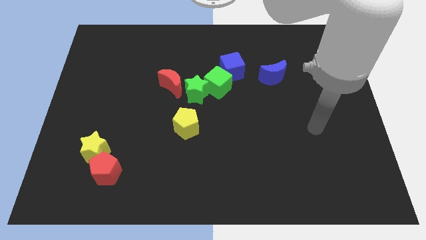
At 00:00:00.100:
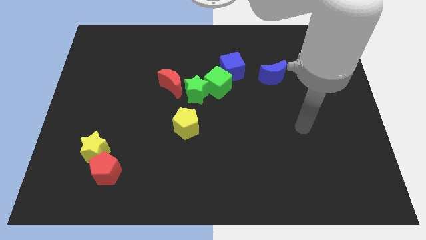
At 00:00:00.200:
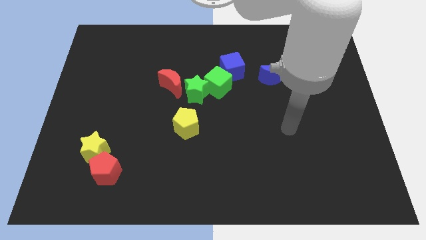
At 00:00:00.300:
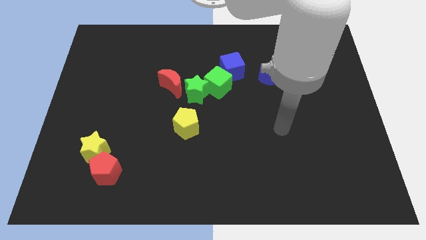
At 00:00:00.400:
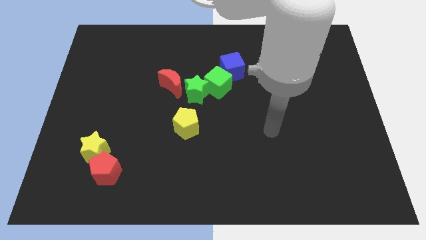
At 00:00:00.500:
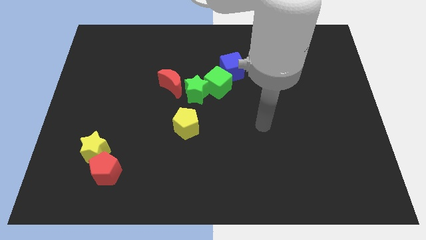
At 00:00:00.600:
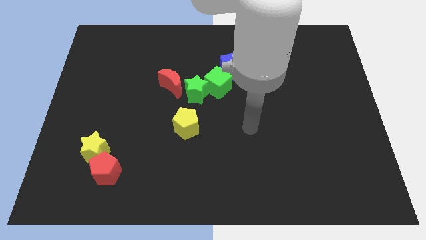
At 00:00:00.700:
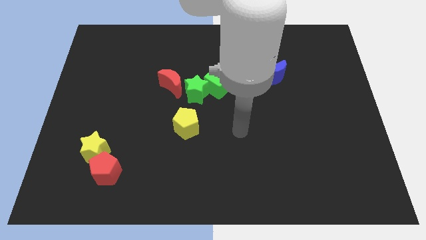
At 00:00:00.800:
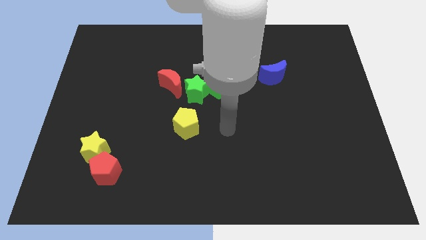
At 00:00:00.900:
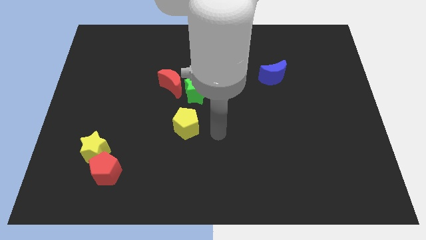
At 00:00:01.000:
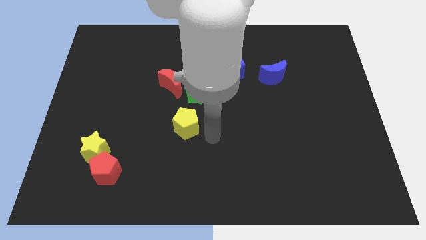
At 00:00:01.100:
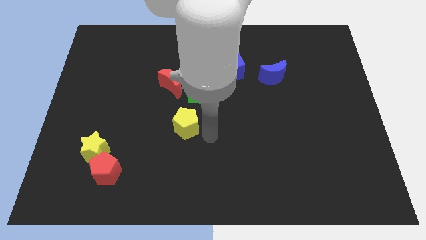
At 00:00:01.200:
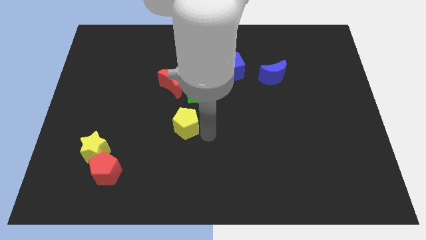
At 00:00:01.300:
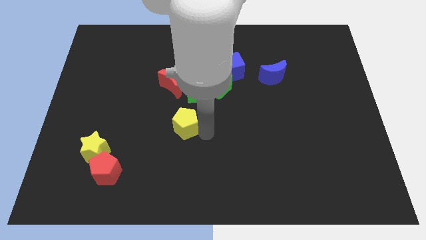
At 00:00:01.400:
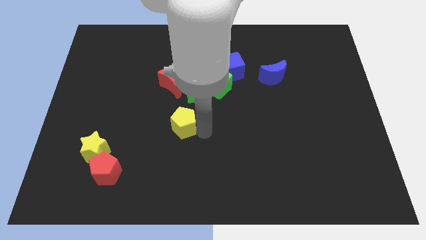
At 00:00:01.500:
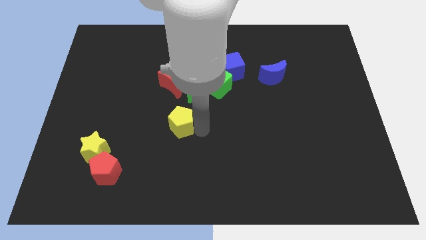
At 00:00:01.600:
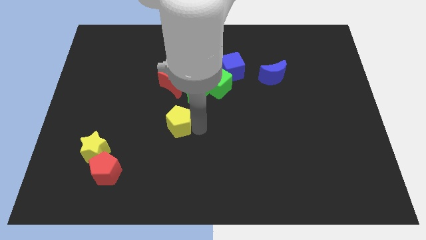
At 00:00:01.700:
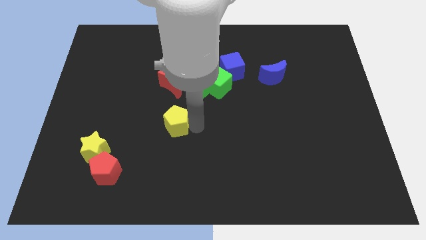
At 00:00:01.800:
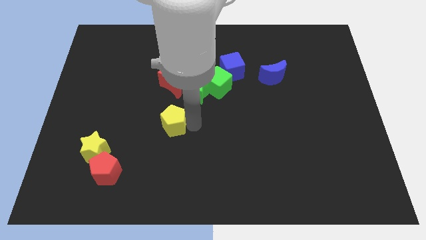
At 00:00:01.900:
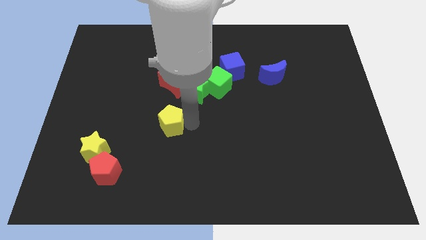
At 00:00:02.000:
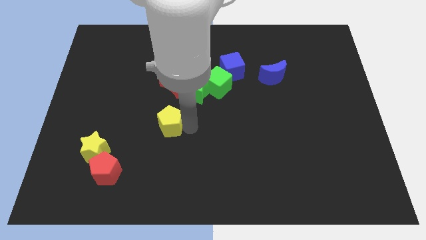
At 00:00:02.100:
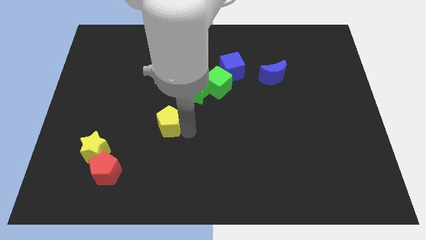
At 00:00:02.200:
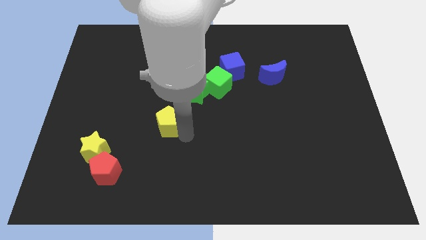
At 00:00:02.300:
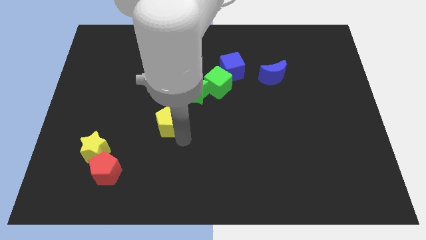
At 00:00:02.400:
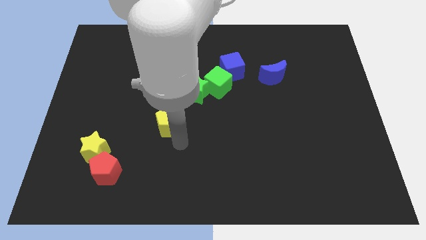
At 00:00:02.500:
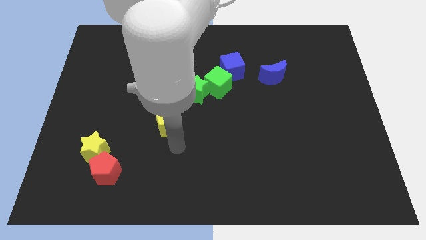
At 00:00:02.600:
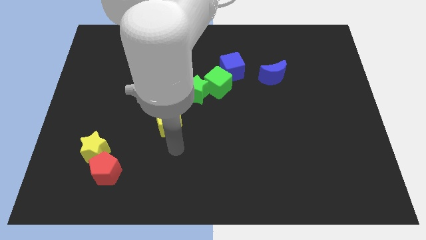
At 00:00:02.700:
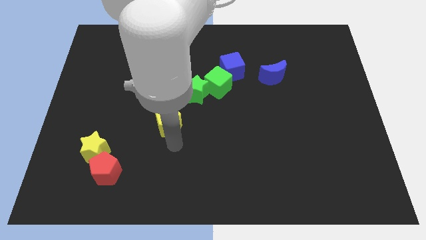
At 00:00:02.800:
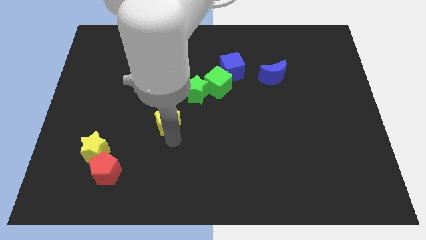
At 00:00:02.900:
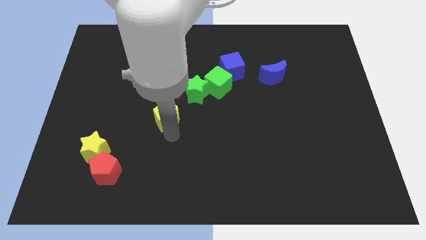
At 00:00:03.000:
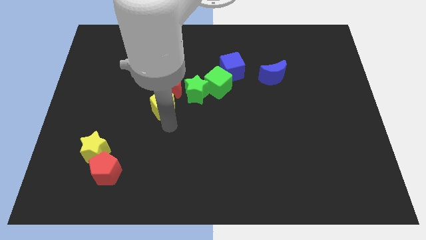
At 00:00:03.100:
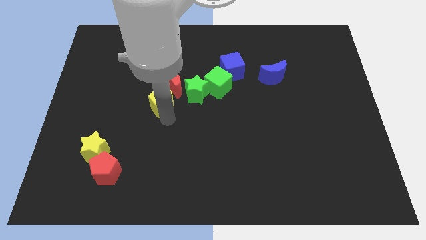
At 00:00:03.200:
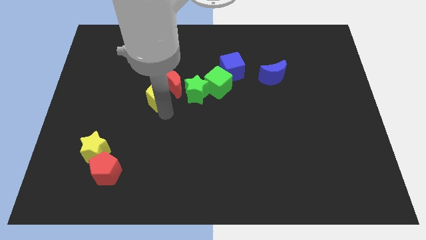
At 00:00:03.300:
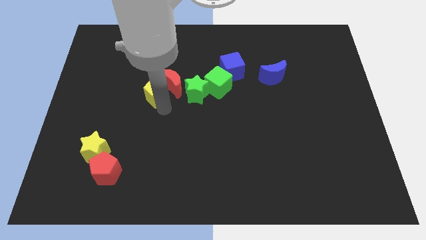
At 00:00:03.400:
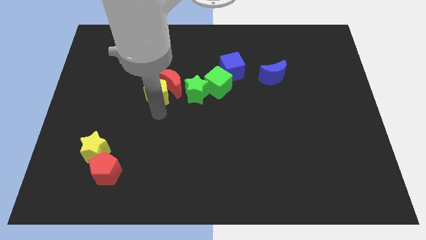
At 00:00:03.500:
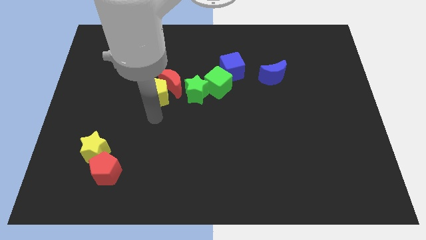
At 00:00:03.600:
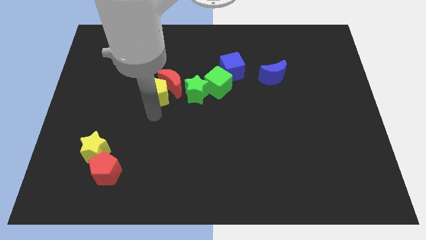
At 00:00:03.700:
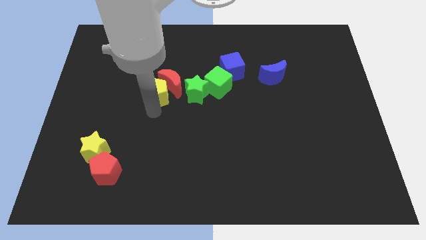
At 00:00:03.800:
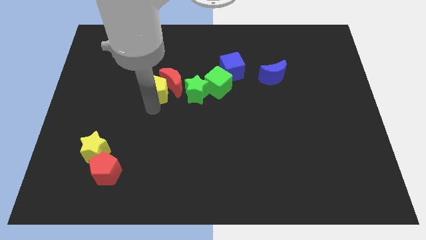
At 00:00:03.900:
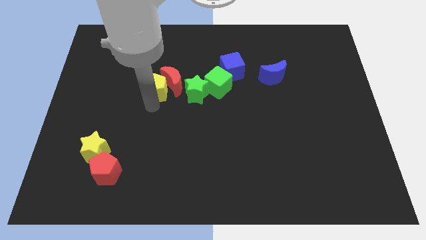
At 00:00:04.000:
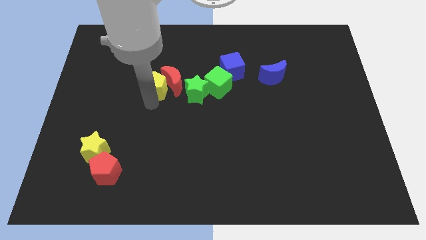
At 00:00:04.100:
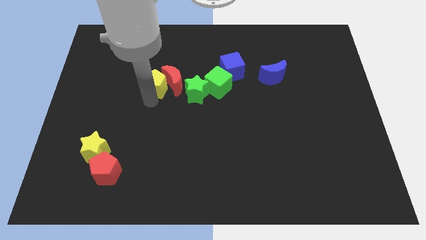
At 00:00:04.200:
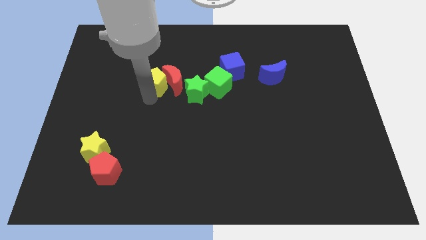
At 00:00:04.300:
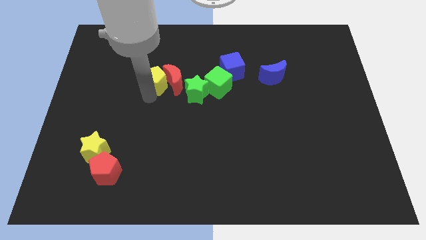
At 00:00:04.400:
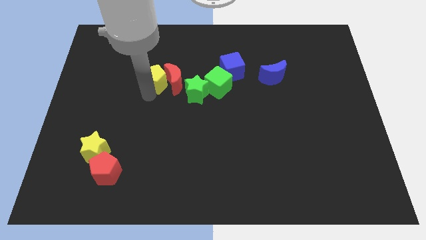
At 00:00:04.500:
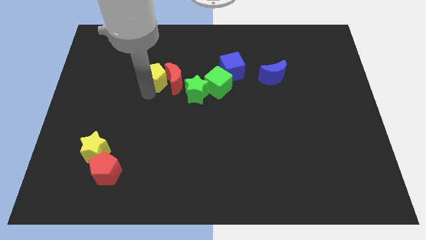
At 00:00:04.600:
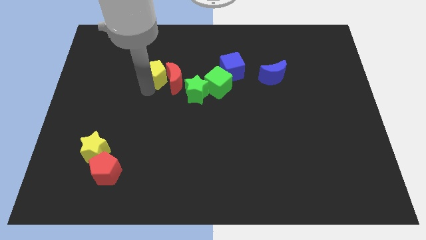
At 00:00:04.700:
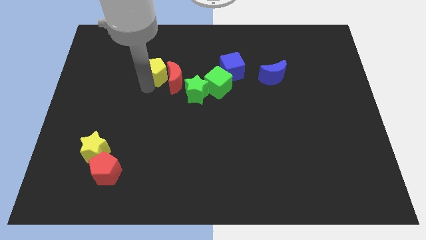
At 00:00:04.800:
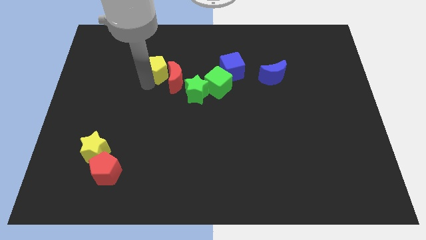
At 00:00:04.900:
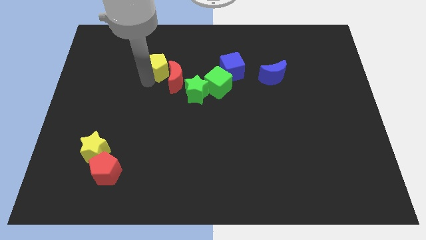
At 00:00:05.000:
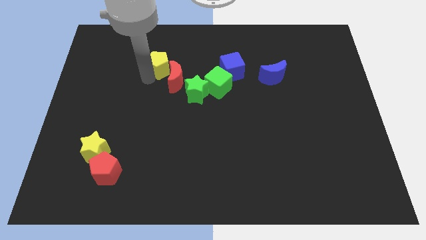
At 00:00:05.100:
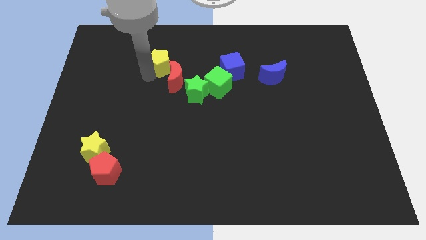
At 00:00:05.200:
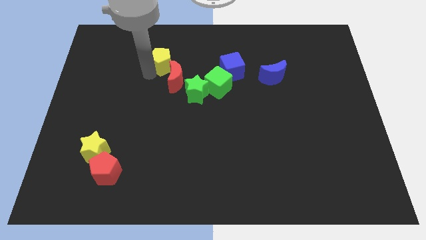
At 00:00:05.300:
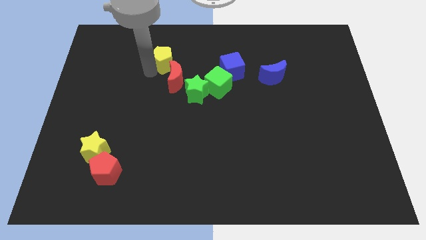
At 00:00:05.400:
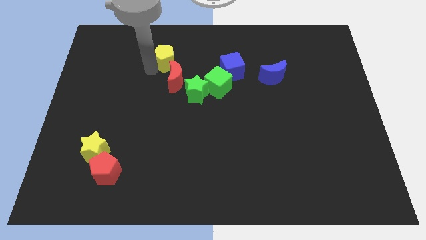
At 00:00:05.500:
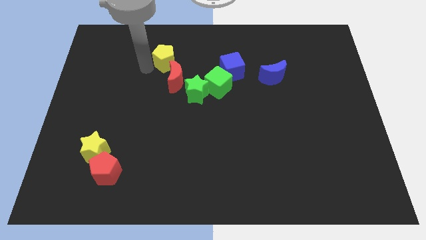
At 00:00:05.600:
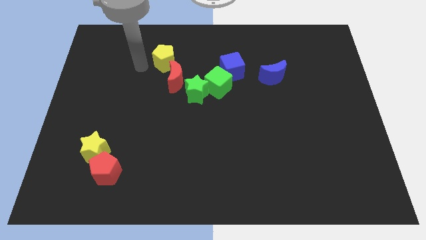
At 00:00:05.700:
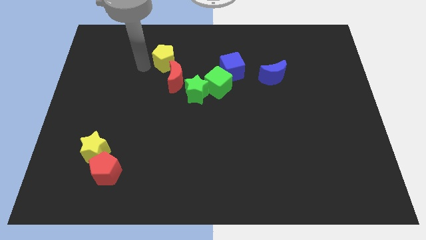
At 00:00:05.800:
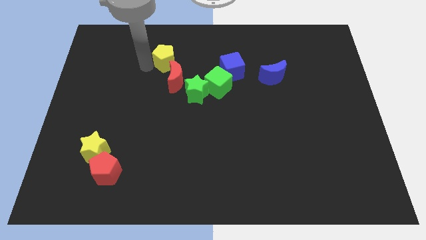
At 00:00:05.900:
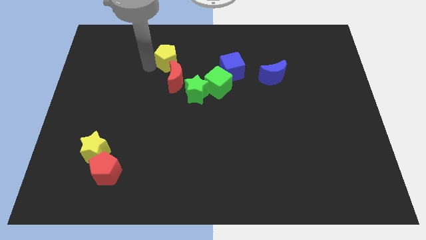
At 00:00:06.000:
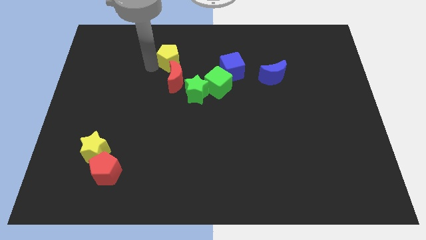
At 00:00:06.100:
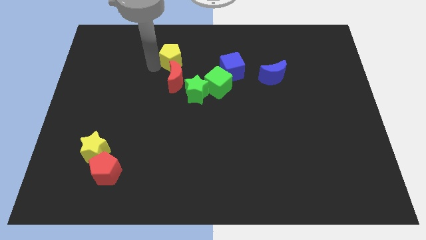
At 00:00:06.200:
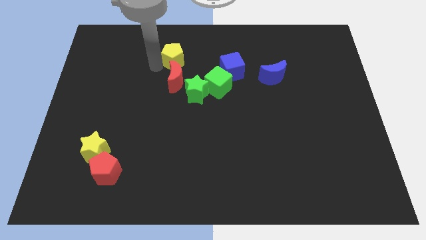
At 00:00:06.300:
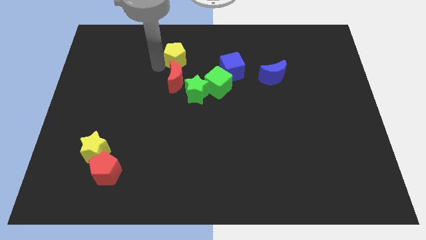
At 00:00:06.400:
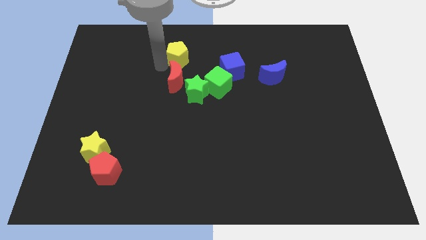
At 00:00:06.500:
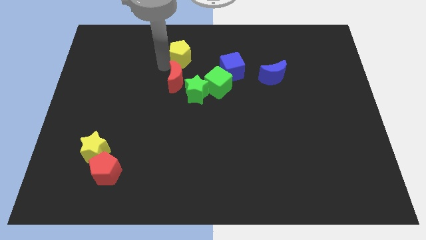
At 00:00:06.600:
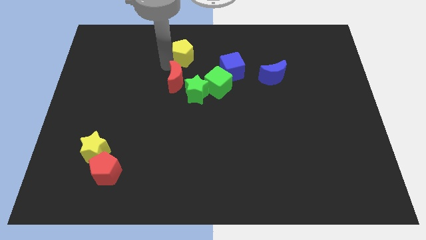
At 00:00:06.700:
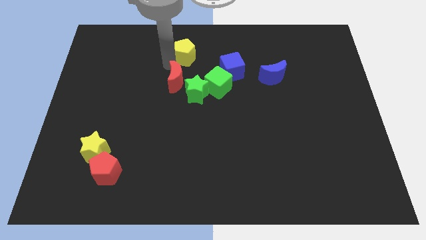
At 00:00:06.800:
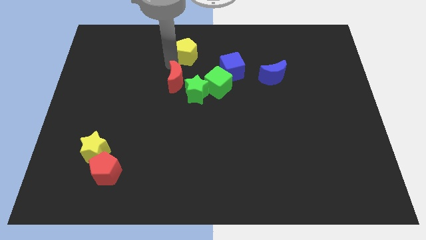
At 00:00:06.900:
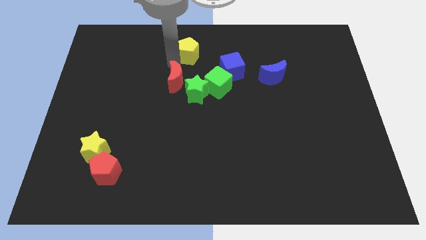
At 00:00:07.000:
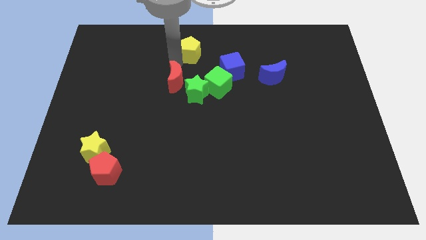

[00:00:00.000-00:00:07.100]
move the yellow pentagon to the top
